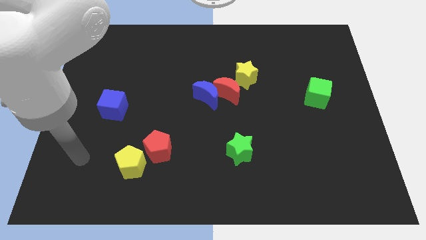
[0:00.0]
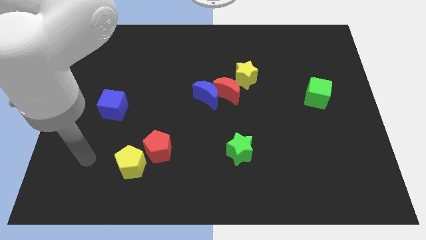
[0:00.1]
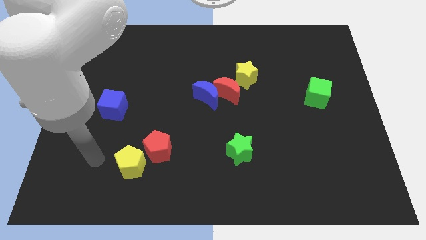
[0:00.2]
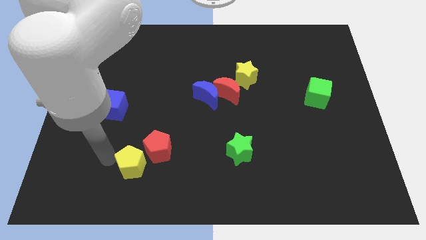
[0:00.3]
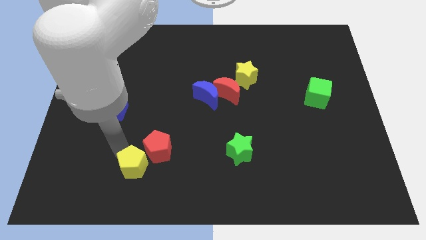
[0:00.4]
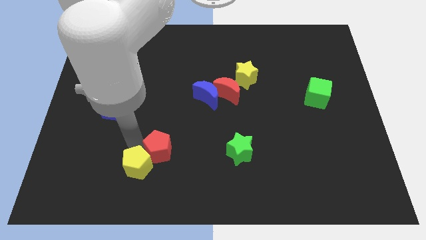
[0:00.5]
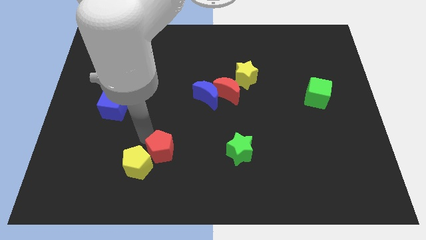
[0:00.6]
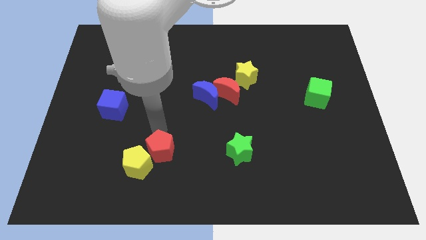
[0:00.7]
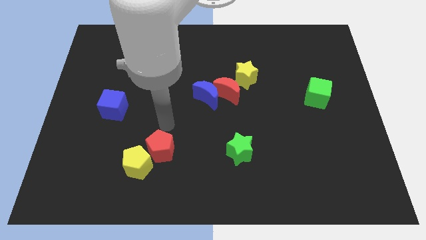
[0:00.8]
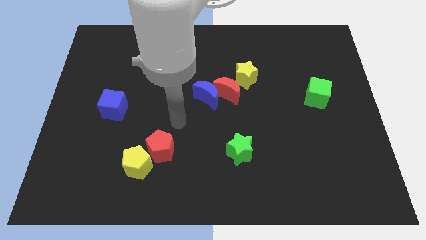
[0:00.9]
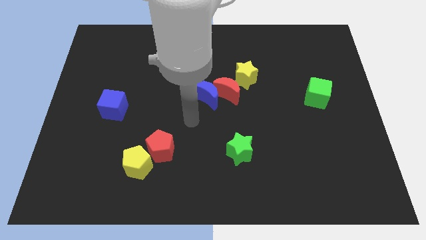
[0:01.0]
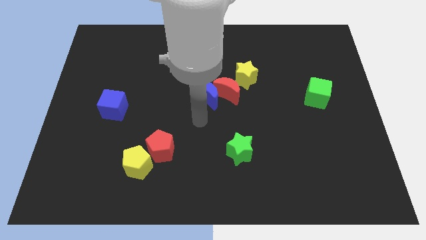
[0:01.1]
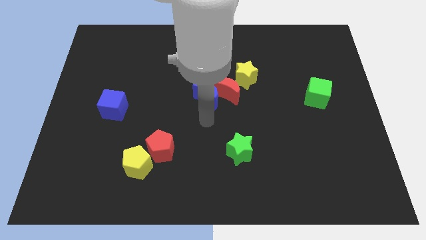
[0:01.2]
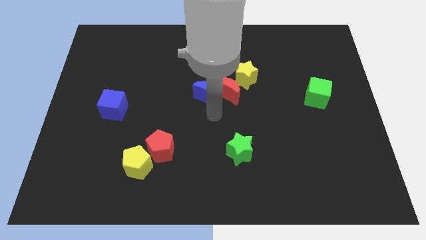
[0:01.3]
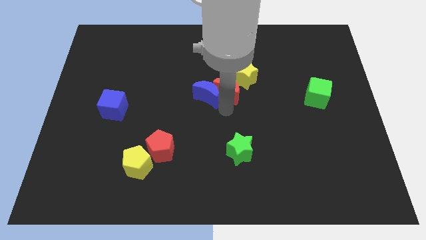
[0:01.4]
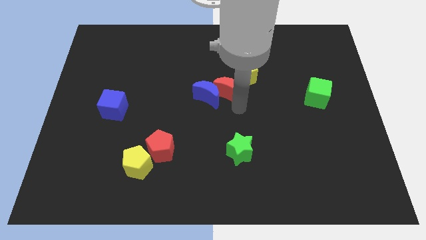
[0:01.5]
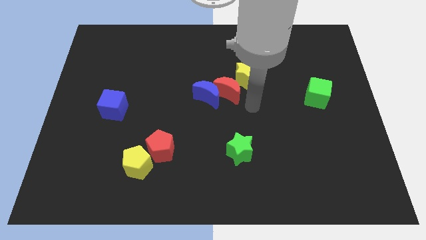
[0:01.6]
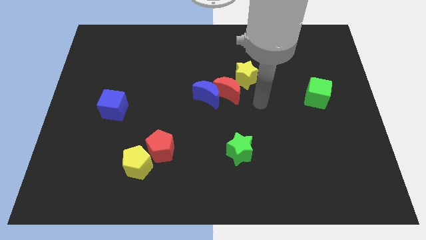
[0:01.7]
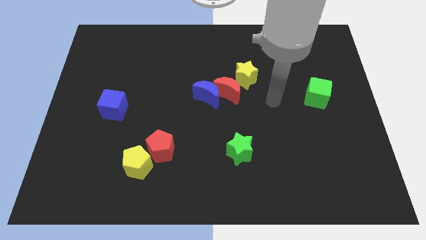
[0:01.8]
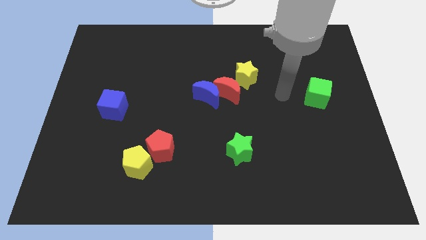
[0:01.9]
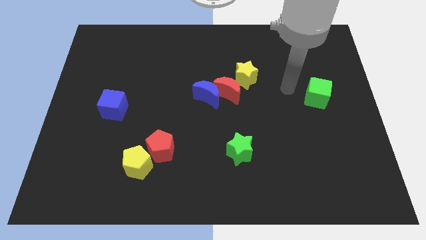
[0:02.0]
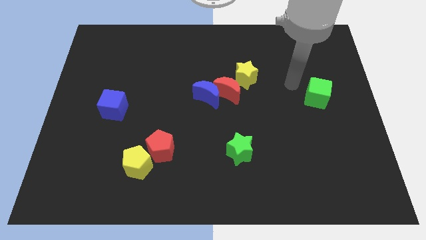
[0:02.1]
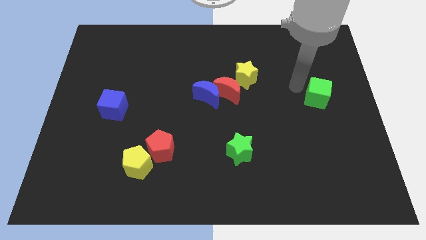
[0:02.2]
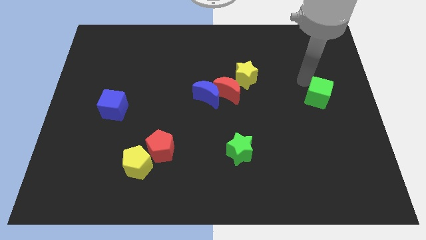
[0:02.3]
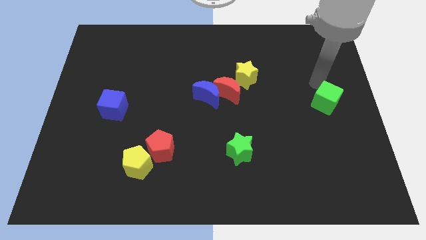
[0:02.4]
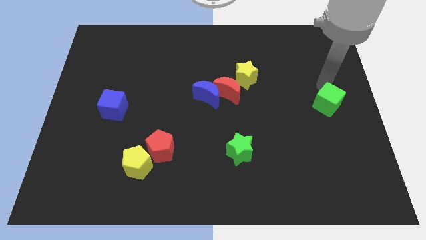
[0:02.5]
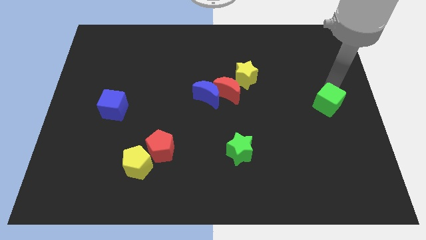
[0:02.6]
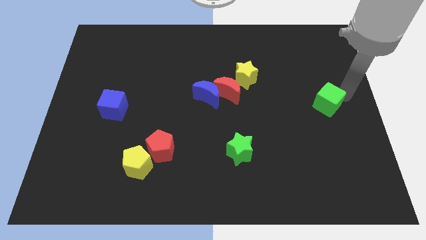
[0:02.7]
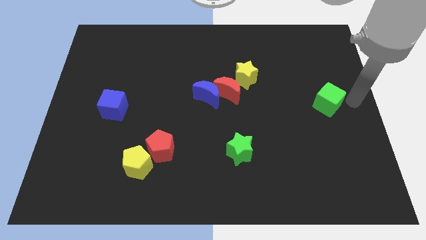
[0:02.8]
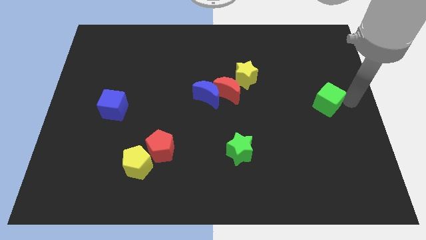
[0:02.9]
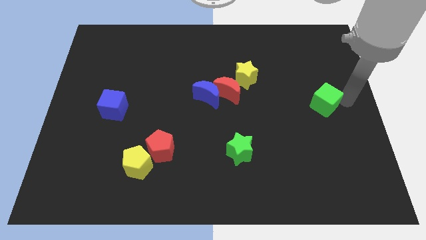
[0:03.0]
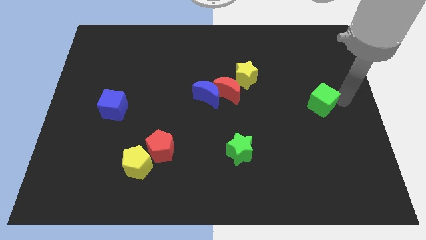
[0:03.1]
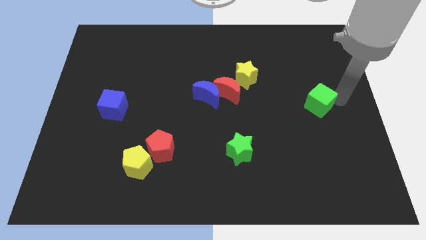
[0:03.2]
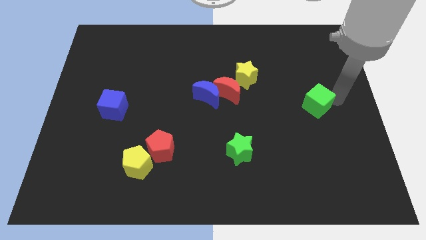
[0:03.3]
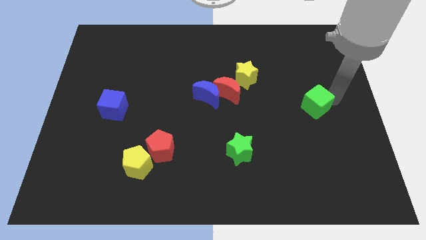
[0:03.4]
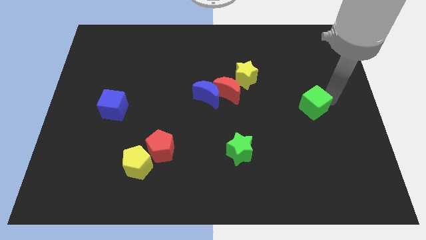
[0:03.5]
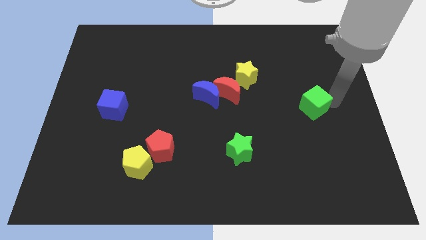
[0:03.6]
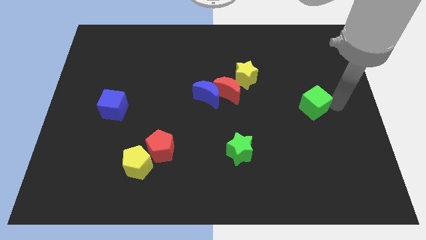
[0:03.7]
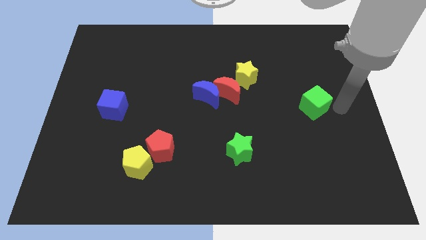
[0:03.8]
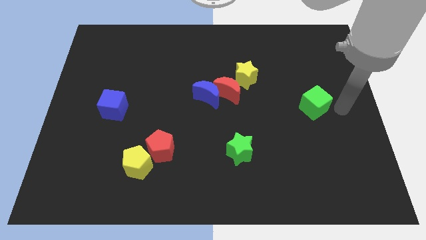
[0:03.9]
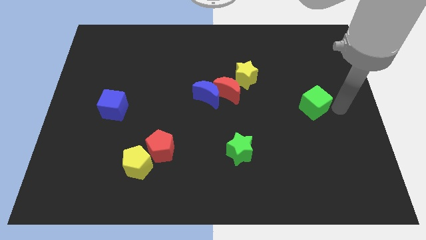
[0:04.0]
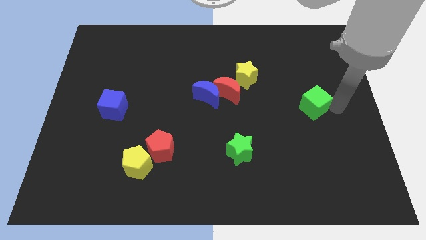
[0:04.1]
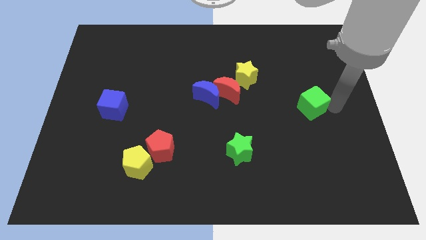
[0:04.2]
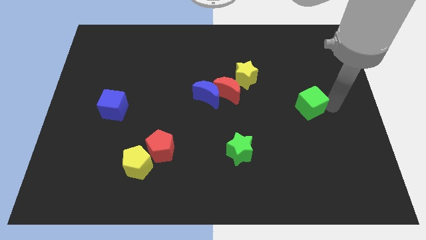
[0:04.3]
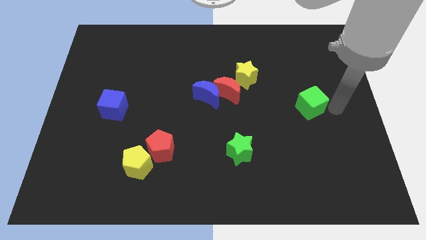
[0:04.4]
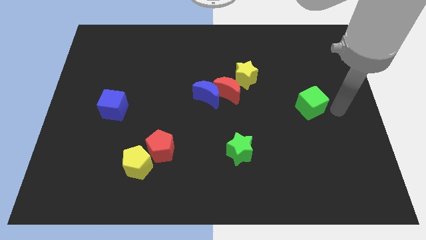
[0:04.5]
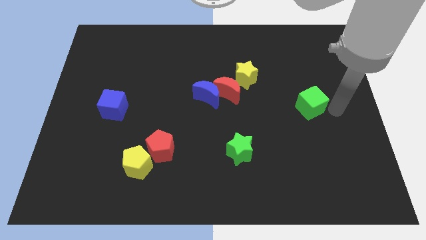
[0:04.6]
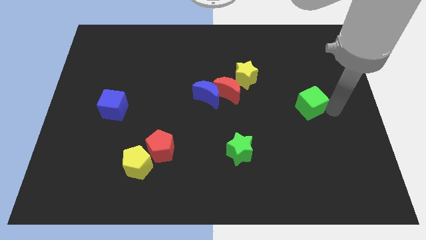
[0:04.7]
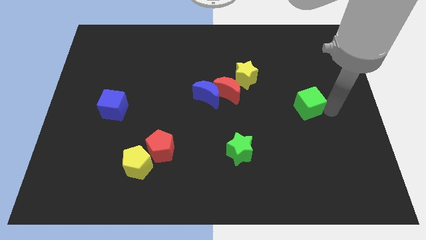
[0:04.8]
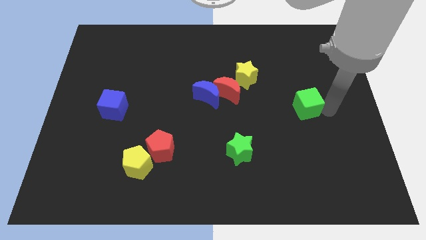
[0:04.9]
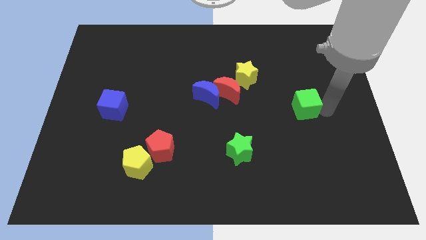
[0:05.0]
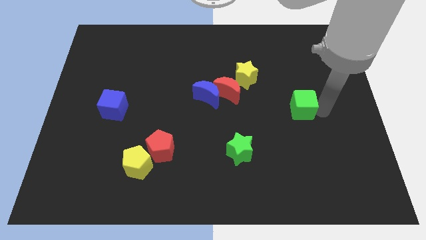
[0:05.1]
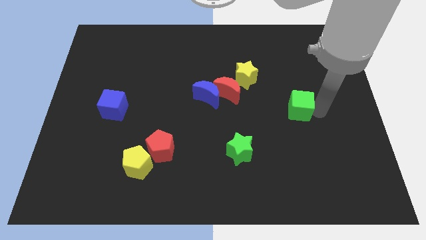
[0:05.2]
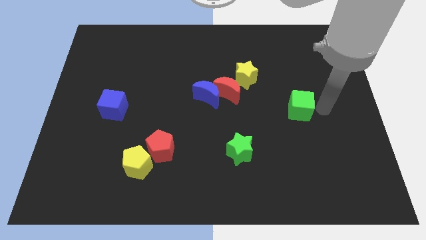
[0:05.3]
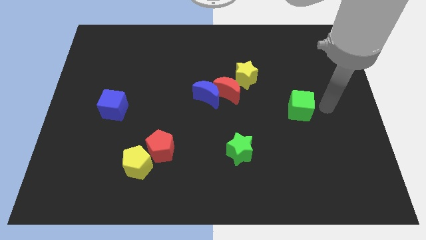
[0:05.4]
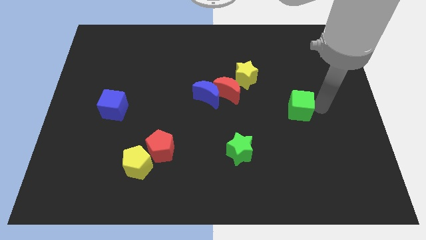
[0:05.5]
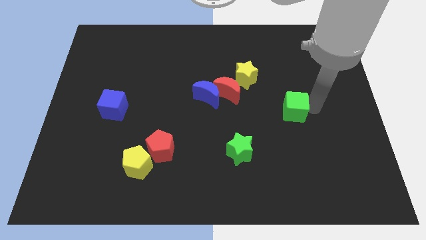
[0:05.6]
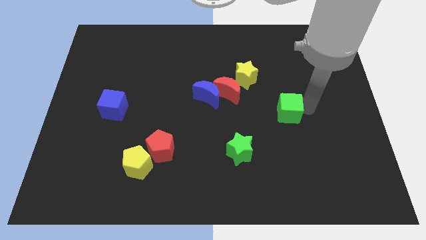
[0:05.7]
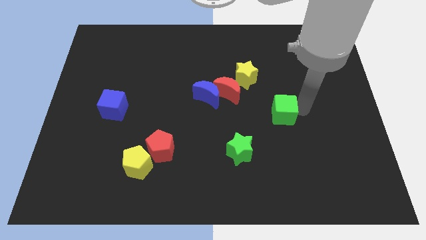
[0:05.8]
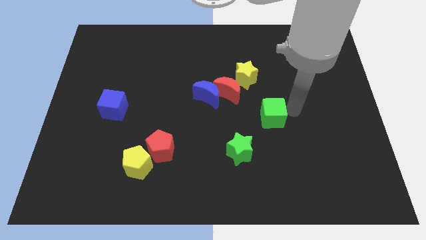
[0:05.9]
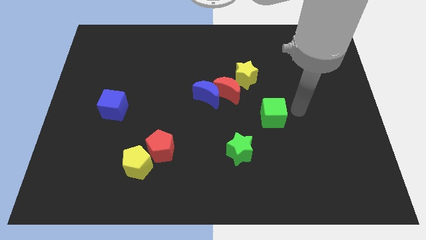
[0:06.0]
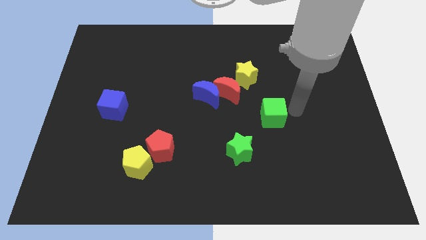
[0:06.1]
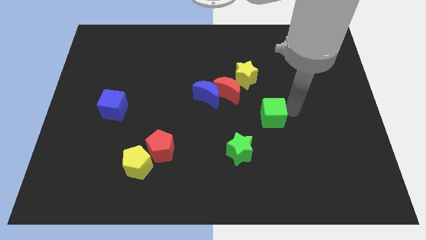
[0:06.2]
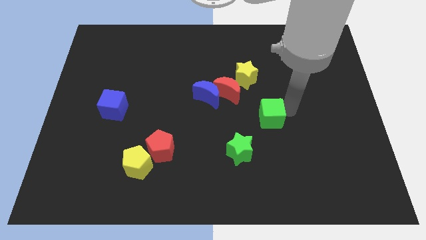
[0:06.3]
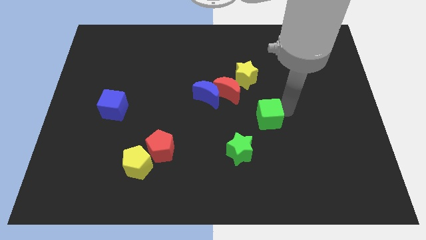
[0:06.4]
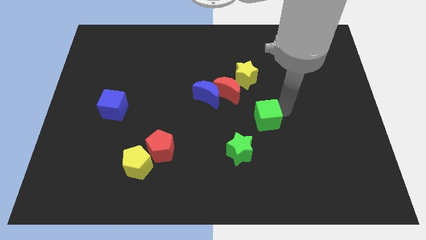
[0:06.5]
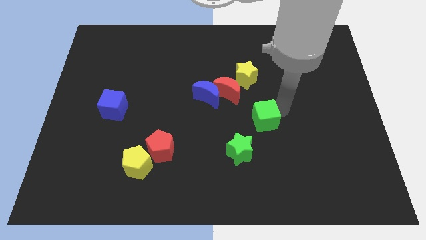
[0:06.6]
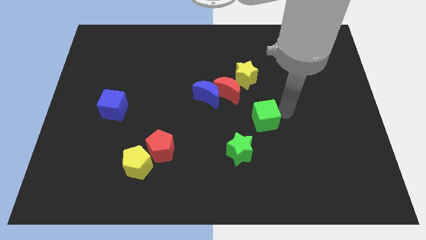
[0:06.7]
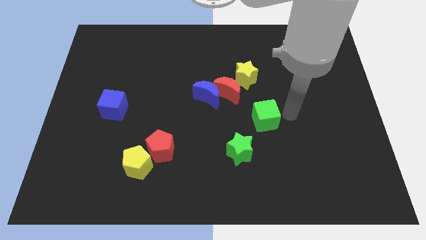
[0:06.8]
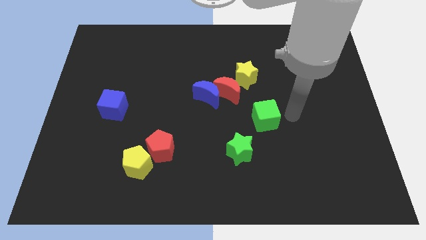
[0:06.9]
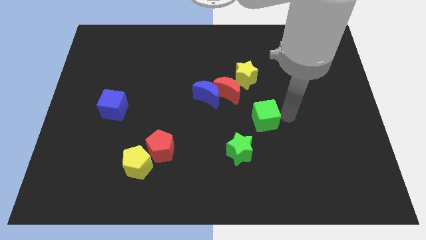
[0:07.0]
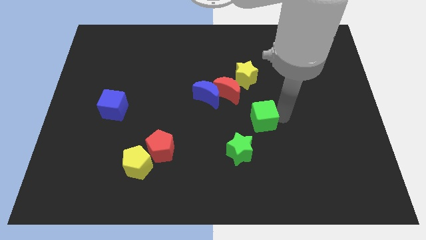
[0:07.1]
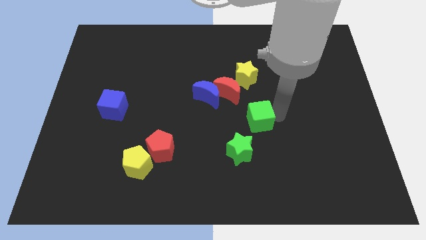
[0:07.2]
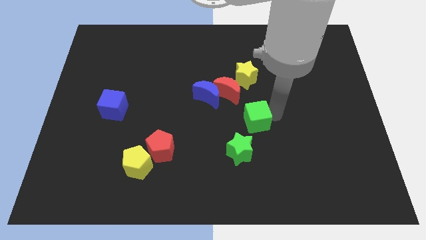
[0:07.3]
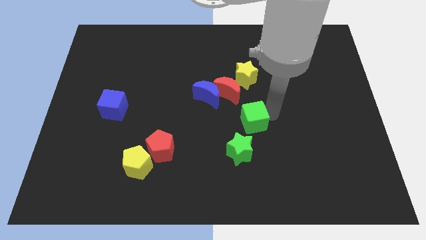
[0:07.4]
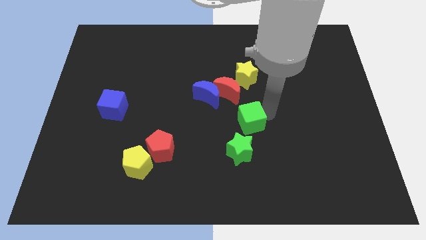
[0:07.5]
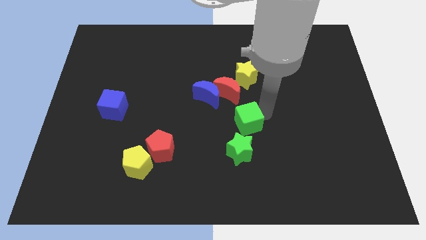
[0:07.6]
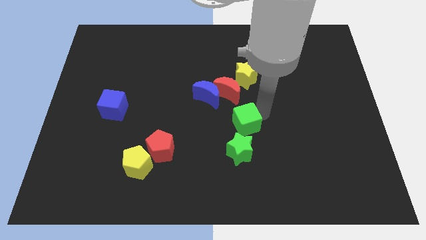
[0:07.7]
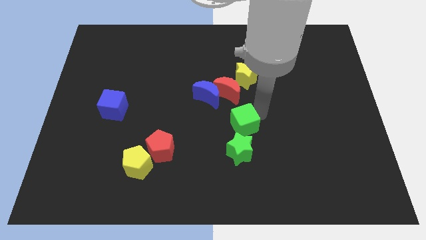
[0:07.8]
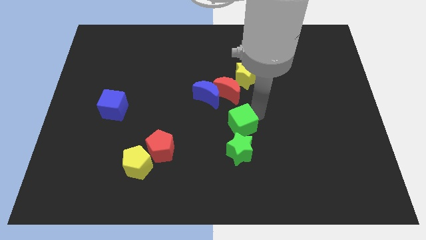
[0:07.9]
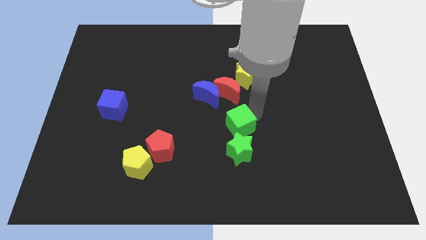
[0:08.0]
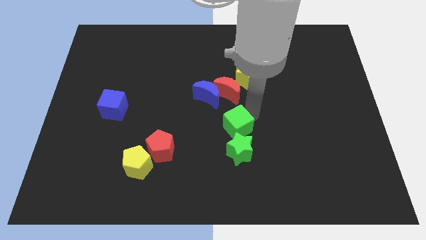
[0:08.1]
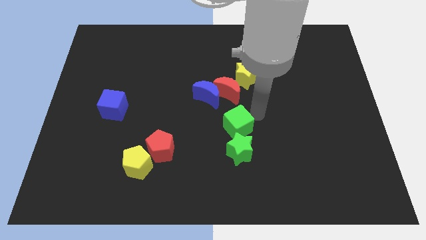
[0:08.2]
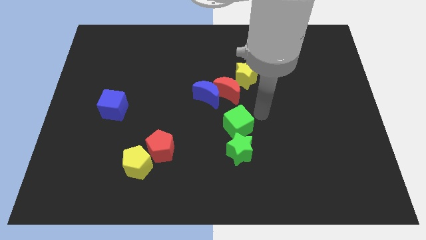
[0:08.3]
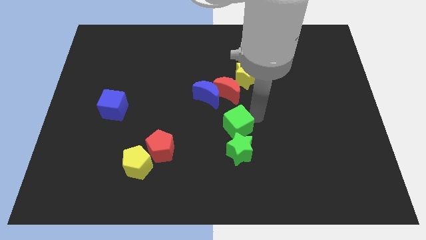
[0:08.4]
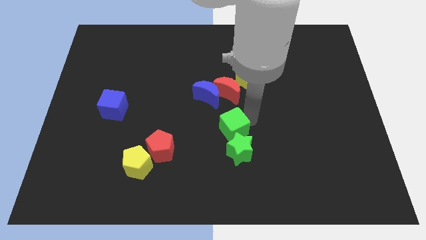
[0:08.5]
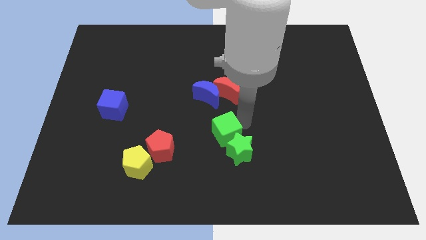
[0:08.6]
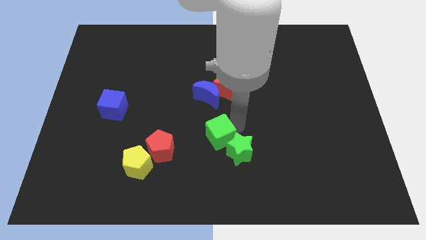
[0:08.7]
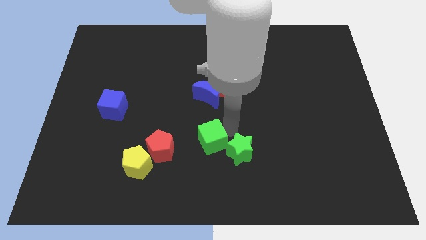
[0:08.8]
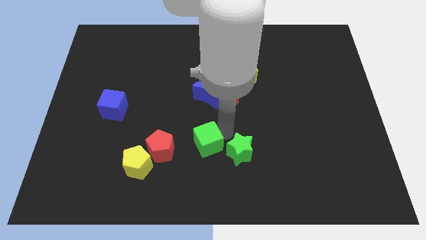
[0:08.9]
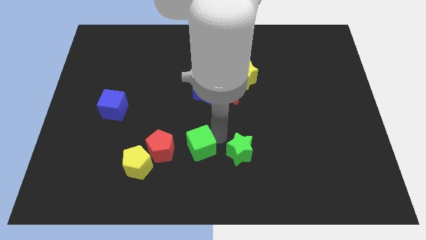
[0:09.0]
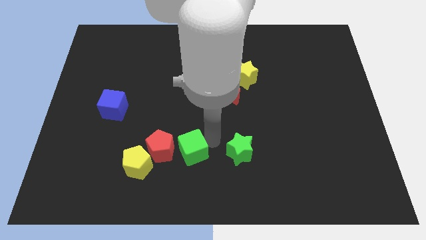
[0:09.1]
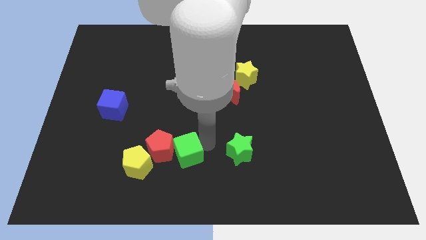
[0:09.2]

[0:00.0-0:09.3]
move the green cube next to the red pentagon
